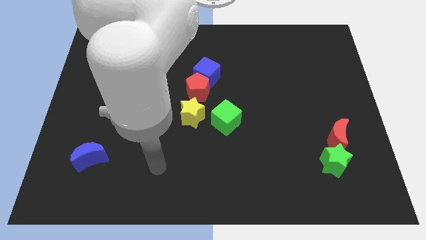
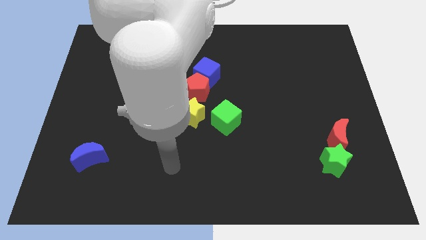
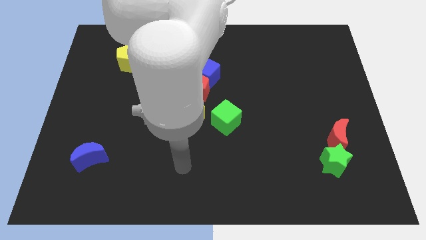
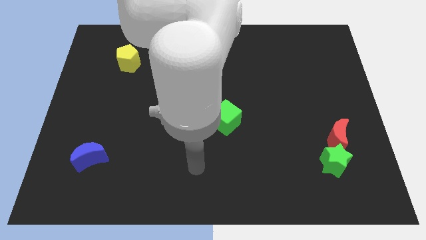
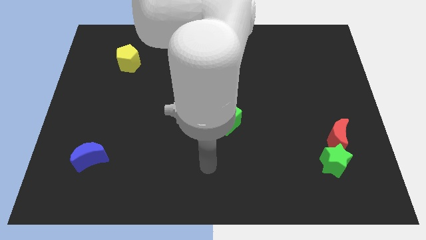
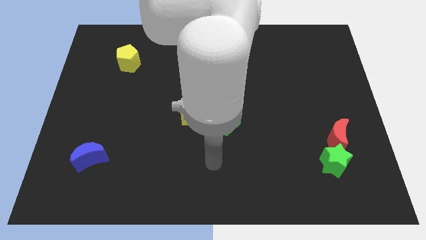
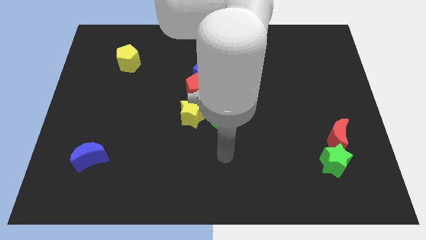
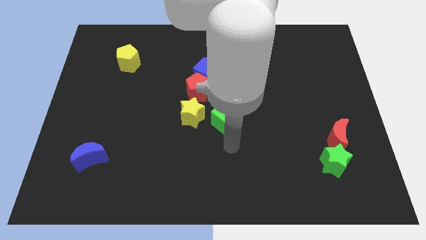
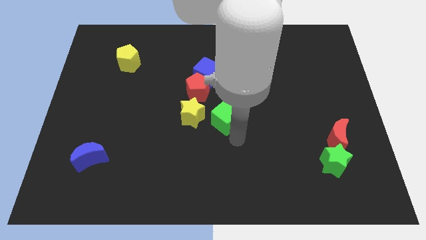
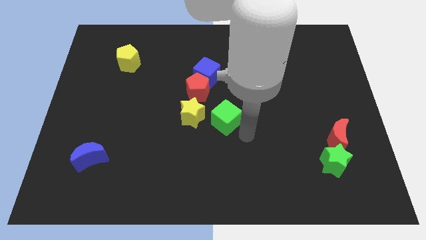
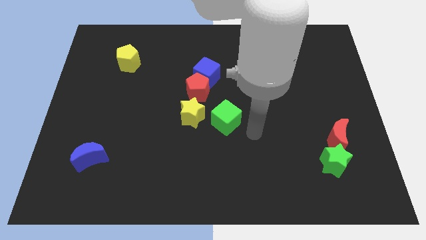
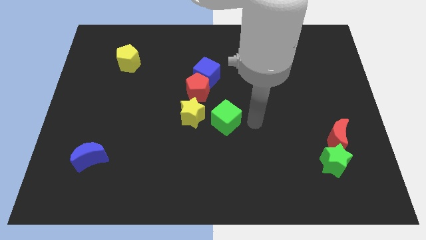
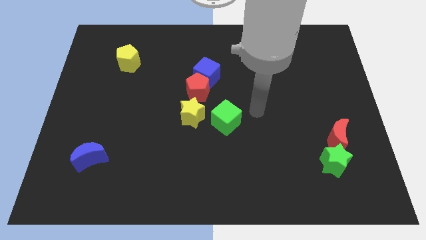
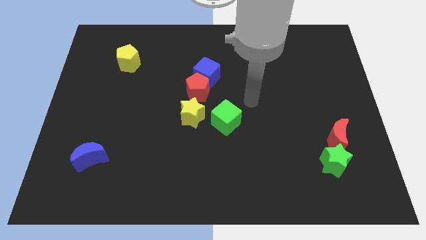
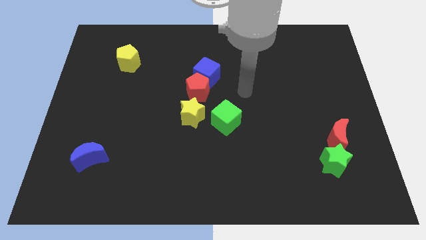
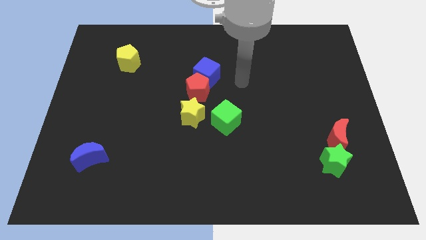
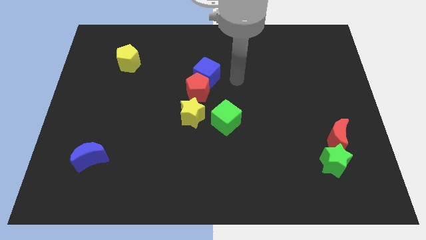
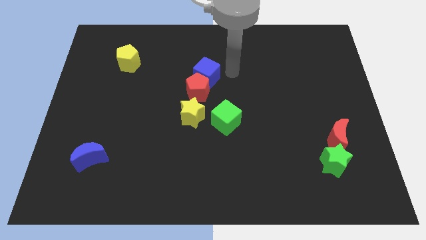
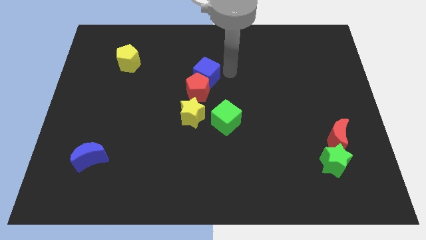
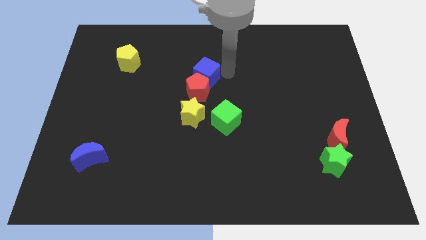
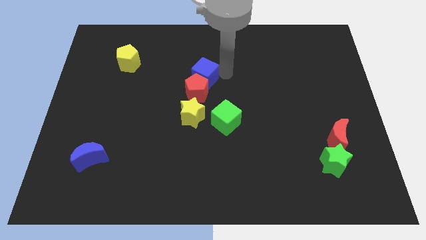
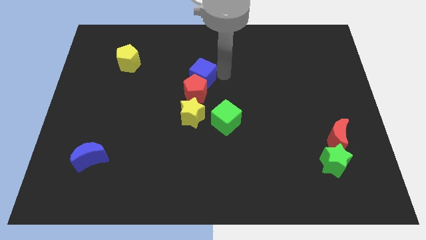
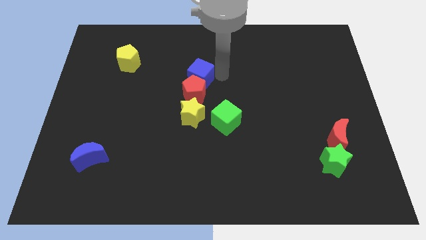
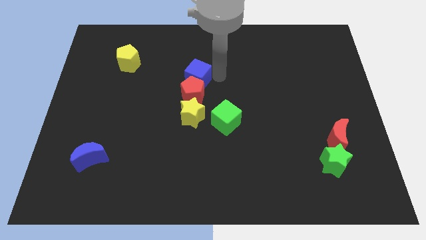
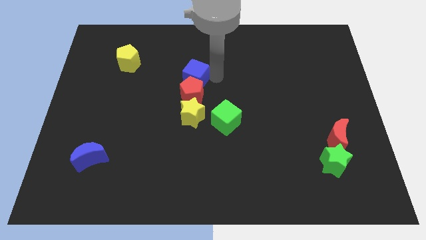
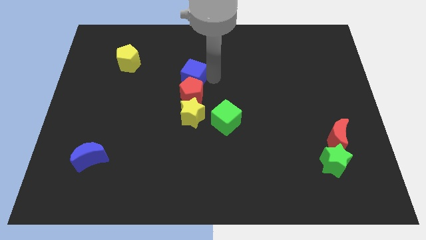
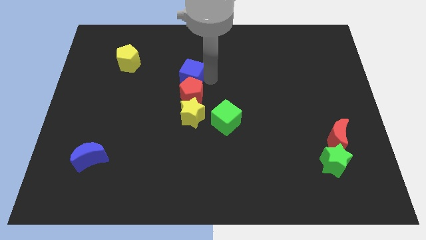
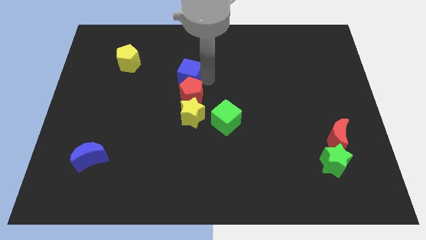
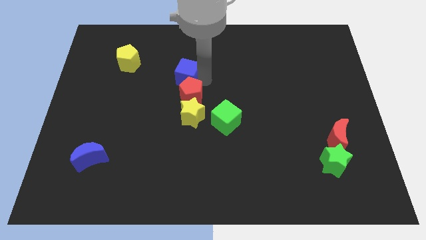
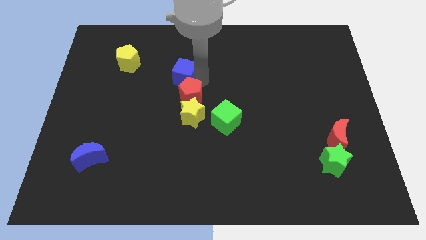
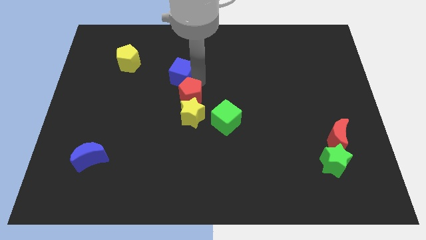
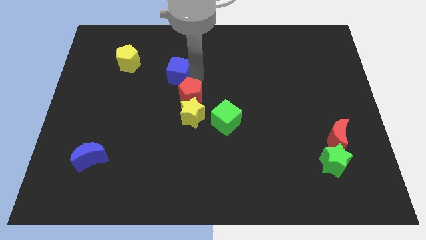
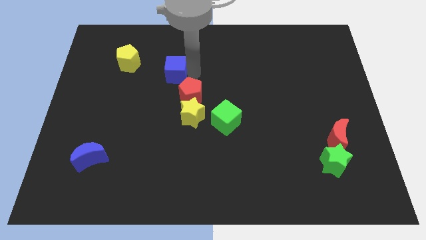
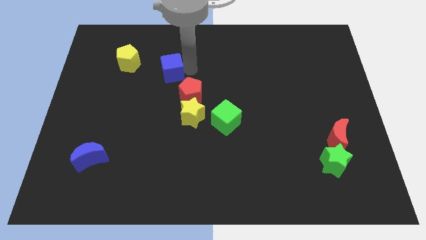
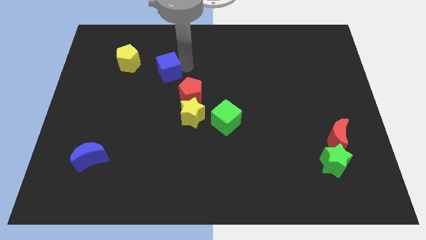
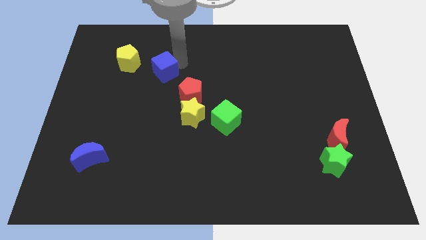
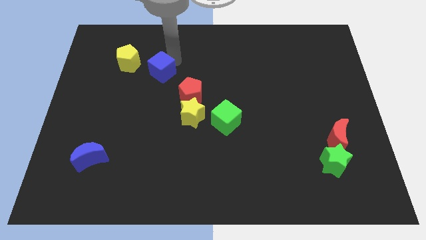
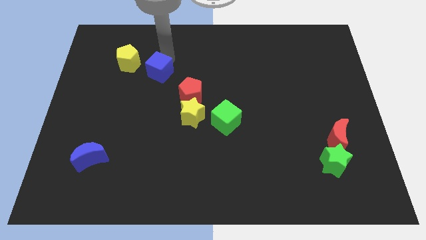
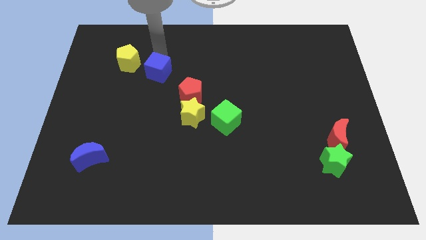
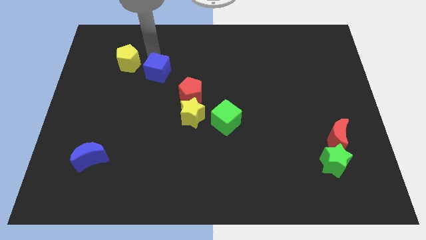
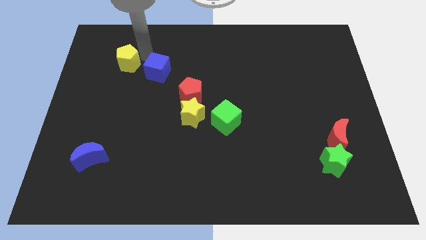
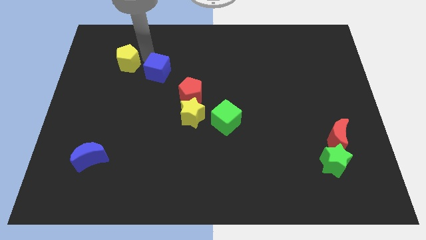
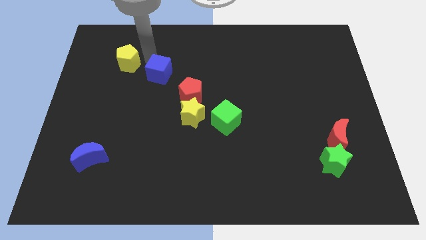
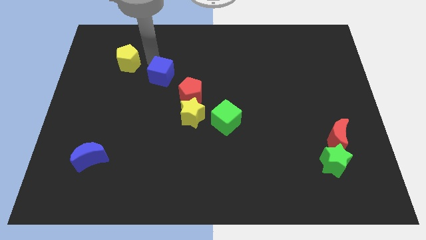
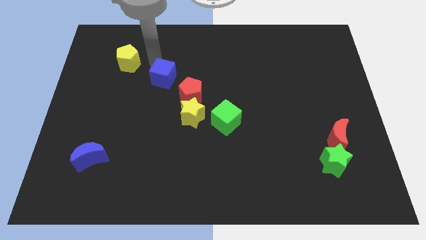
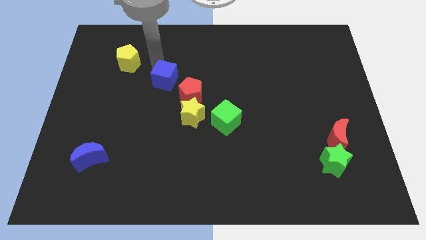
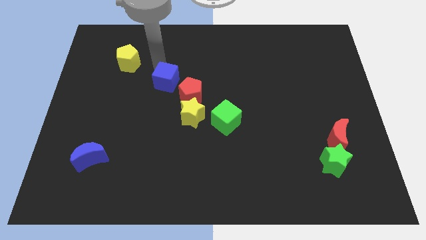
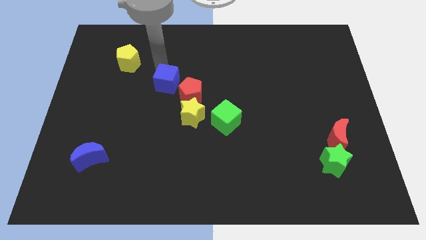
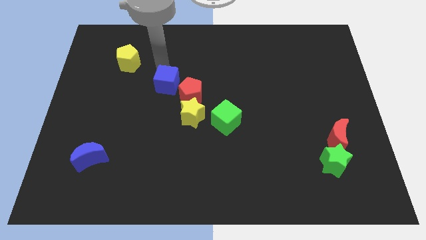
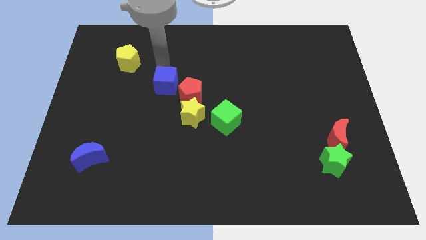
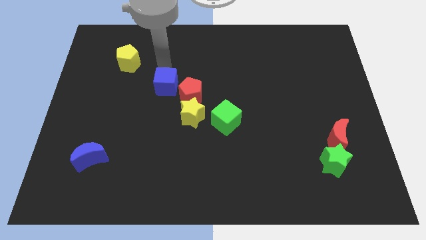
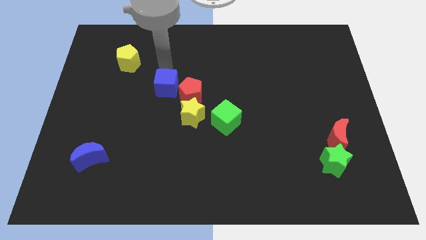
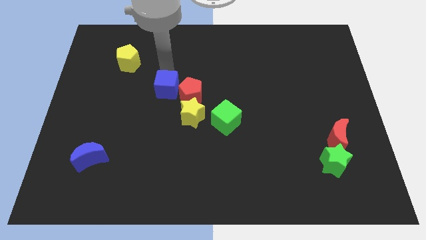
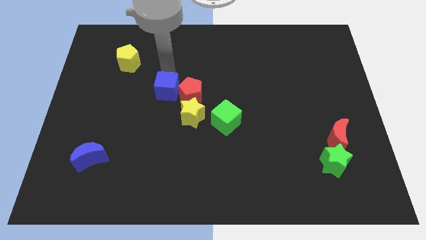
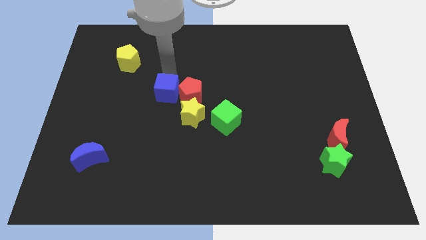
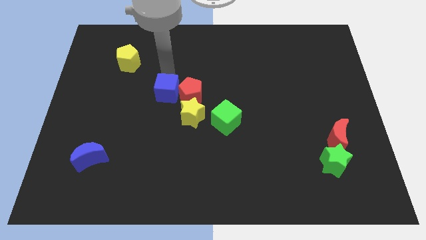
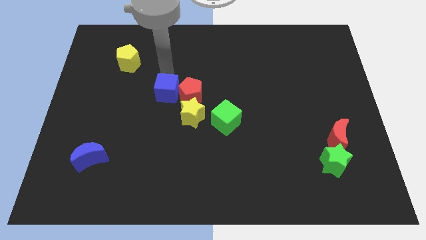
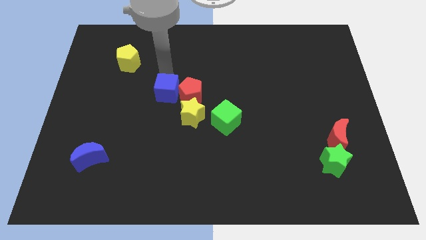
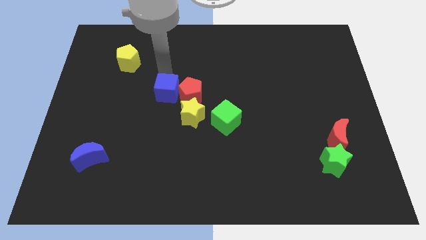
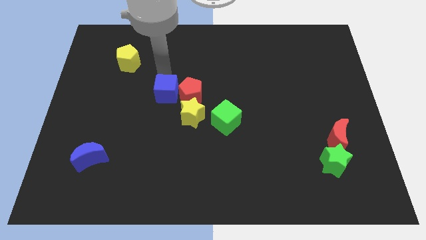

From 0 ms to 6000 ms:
push the blue cube to the bottom left side of the red pentagon
